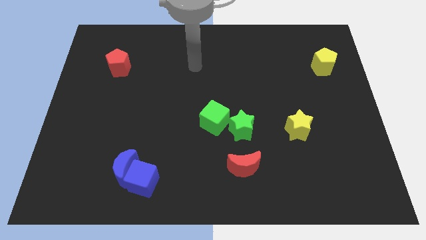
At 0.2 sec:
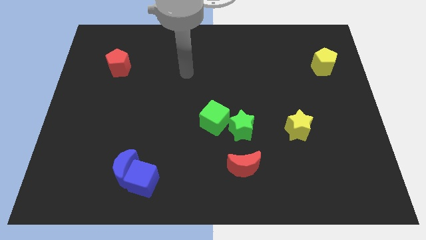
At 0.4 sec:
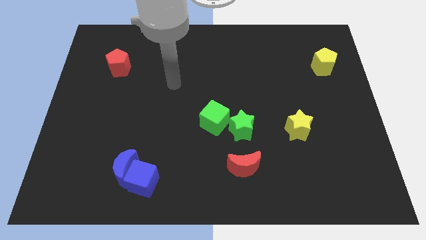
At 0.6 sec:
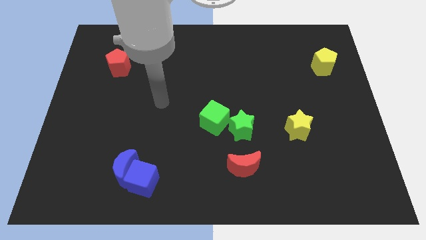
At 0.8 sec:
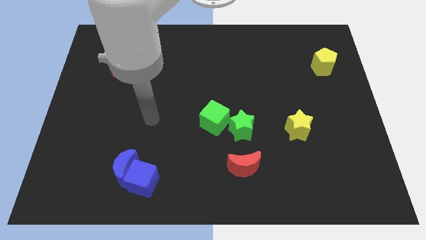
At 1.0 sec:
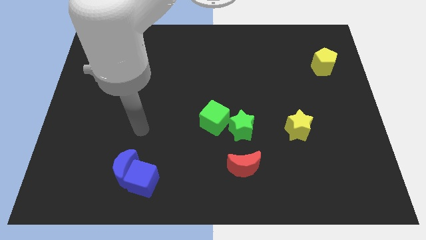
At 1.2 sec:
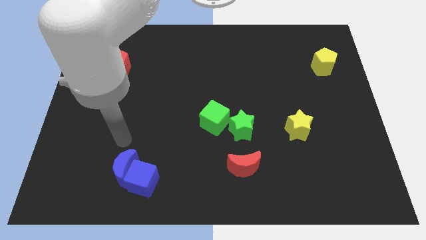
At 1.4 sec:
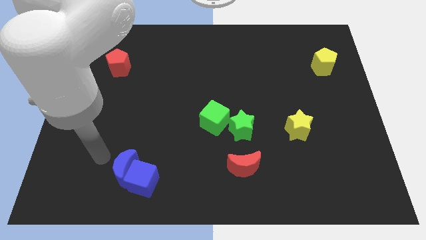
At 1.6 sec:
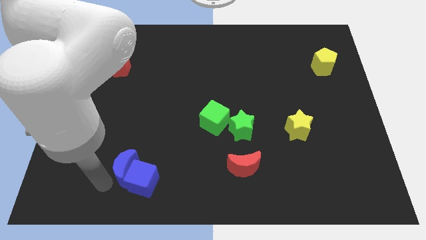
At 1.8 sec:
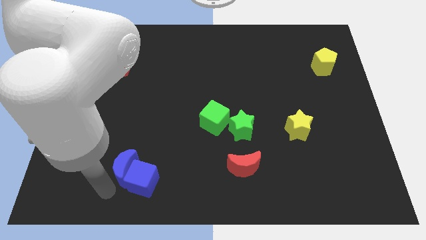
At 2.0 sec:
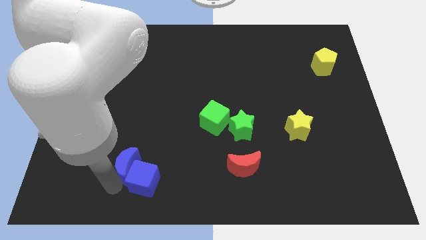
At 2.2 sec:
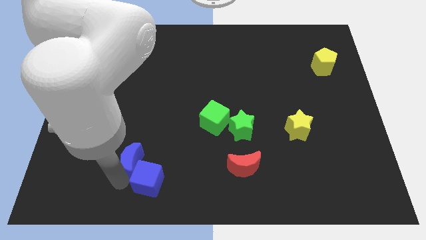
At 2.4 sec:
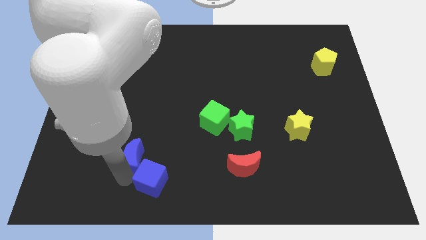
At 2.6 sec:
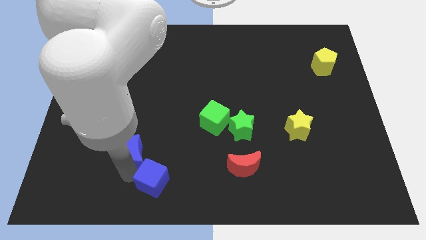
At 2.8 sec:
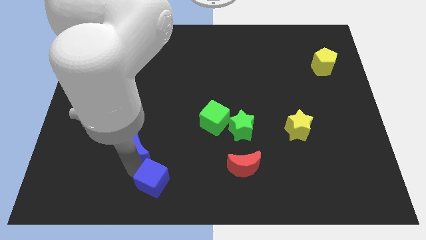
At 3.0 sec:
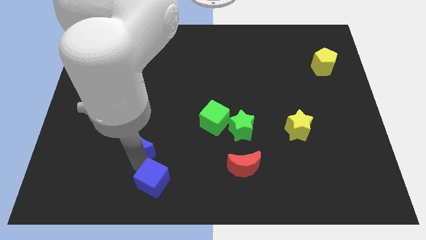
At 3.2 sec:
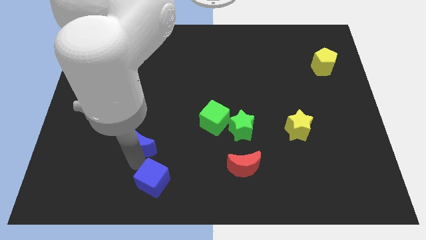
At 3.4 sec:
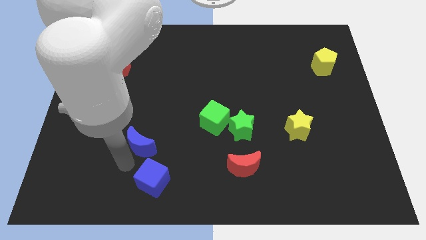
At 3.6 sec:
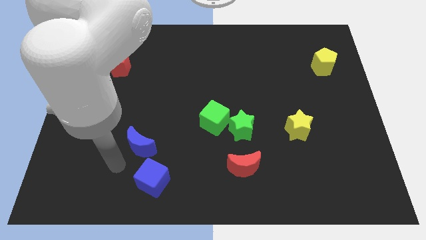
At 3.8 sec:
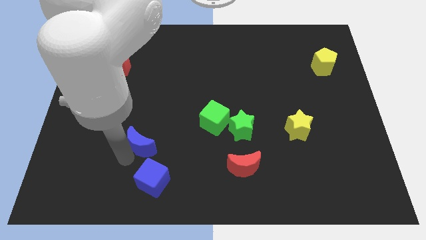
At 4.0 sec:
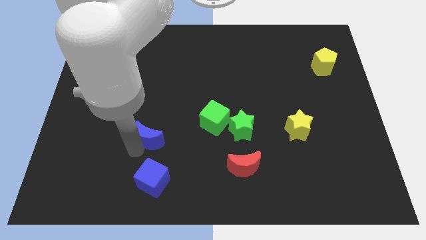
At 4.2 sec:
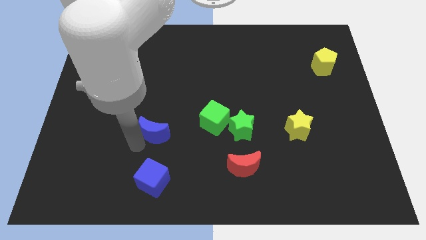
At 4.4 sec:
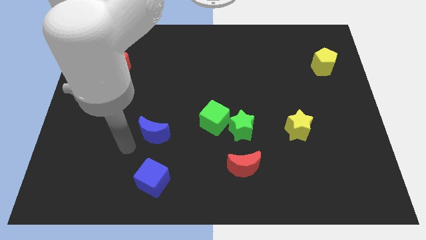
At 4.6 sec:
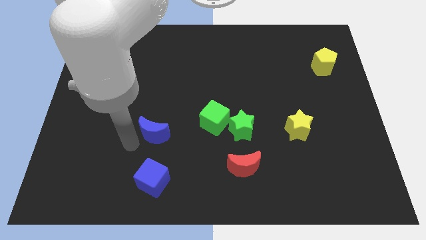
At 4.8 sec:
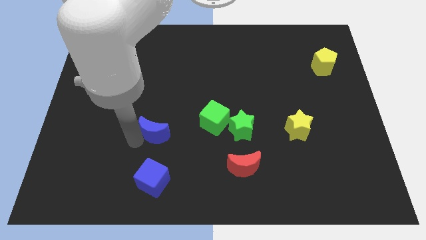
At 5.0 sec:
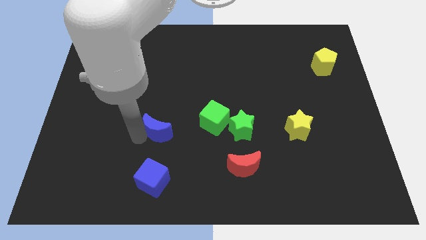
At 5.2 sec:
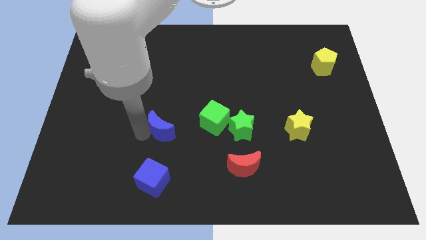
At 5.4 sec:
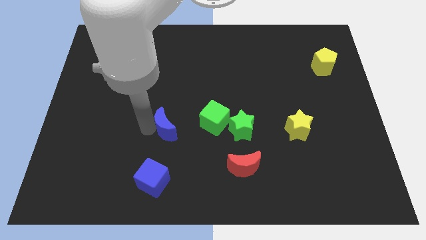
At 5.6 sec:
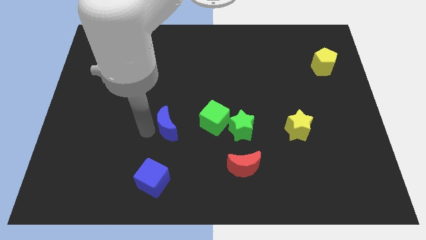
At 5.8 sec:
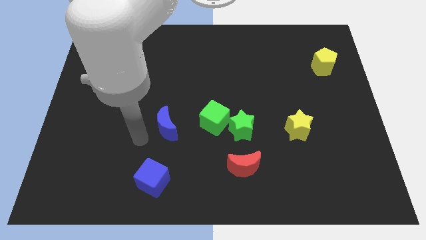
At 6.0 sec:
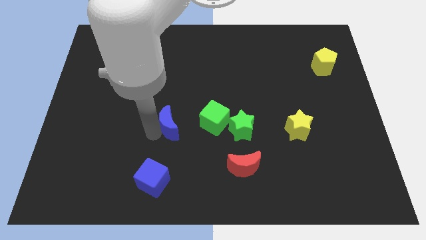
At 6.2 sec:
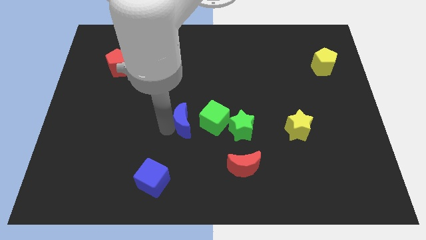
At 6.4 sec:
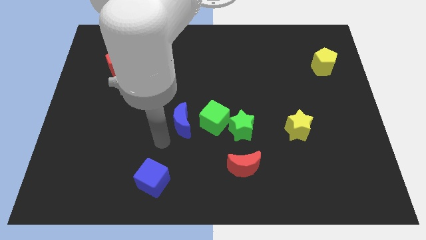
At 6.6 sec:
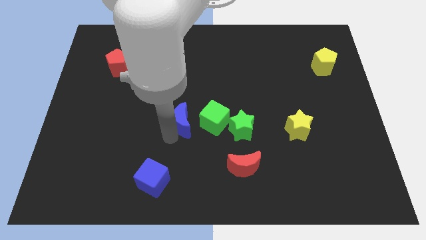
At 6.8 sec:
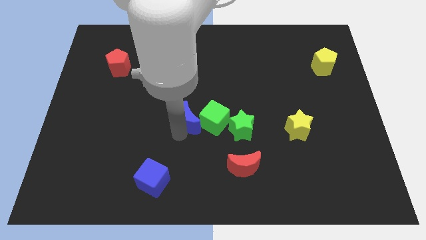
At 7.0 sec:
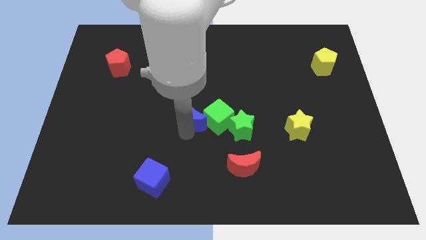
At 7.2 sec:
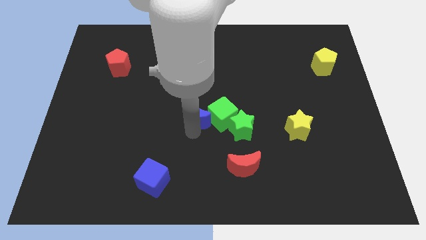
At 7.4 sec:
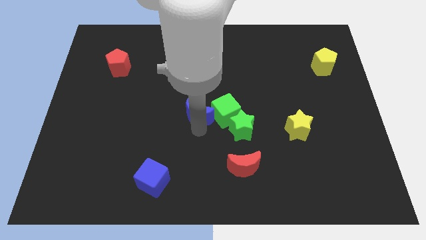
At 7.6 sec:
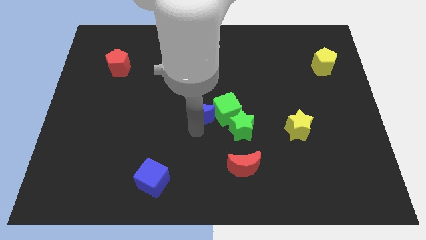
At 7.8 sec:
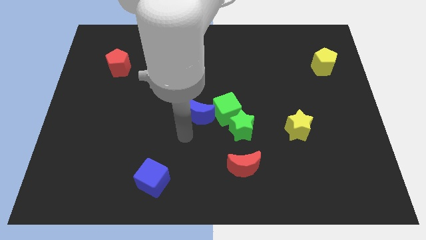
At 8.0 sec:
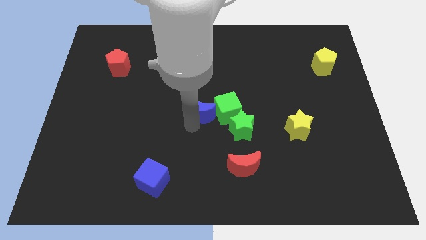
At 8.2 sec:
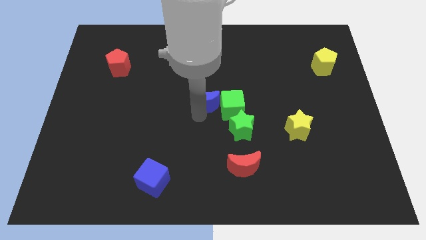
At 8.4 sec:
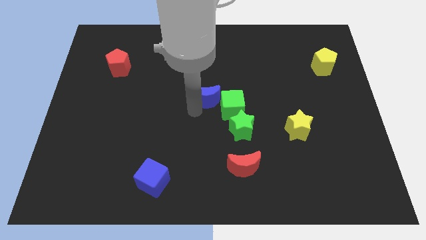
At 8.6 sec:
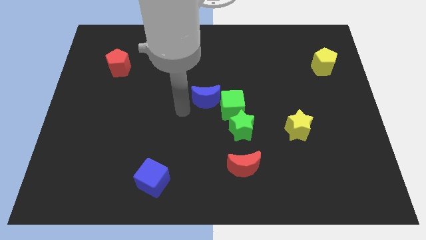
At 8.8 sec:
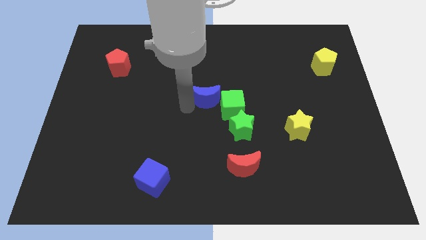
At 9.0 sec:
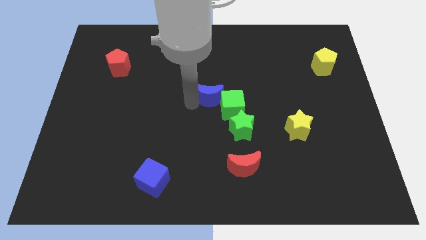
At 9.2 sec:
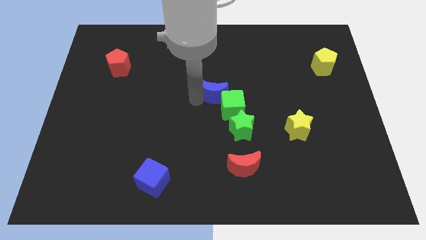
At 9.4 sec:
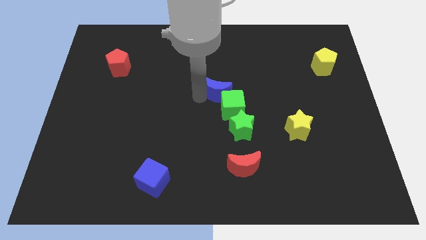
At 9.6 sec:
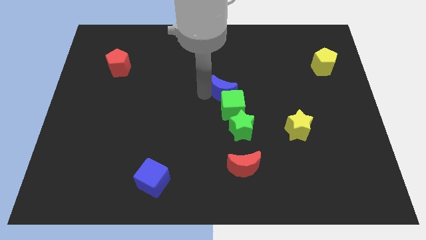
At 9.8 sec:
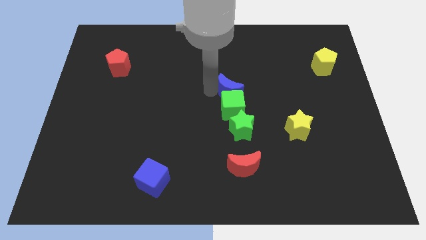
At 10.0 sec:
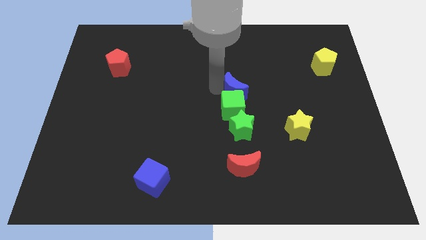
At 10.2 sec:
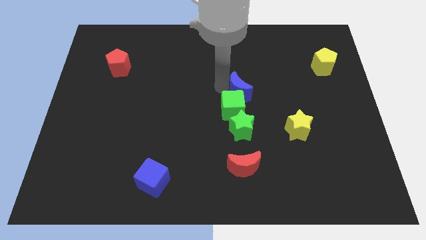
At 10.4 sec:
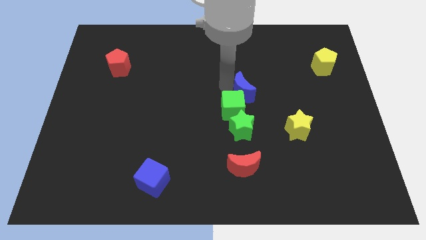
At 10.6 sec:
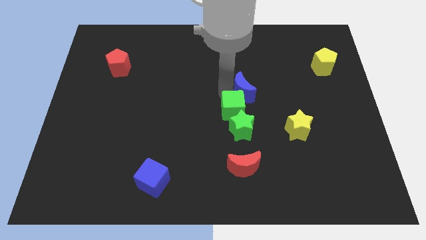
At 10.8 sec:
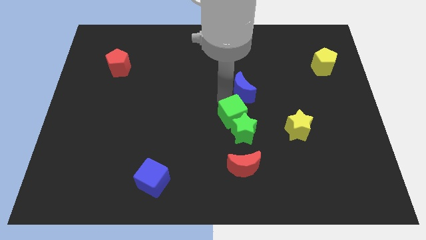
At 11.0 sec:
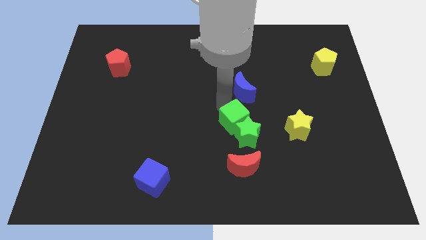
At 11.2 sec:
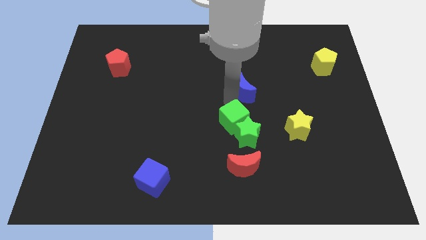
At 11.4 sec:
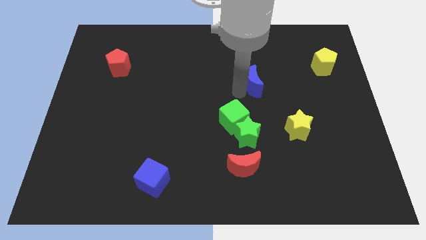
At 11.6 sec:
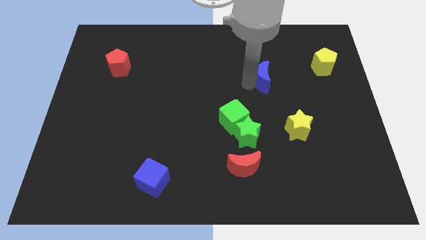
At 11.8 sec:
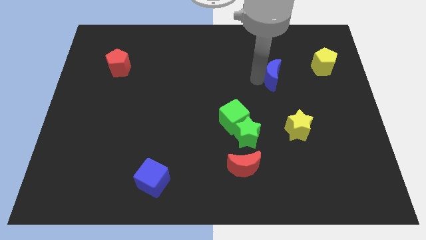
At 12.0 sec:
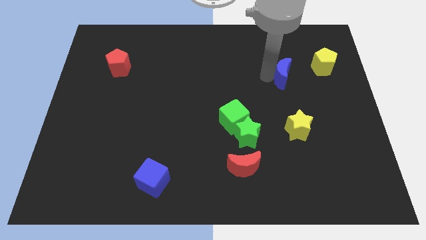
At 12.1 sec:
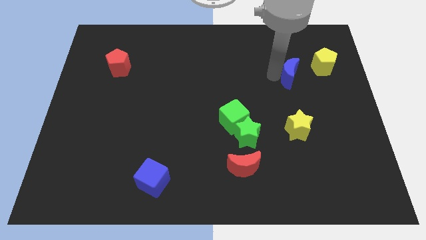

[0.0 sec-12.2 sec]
slide the blue moon to the bottom left side of the yellow pentagon

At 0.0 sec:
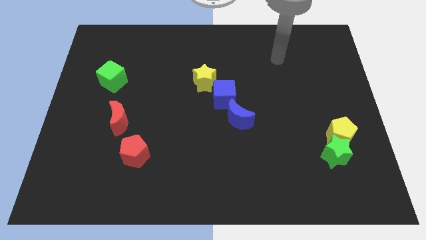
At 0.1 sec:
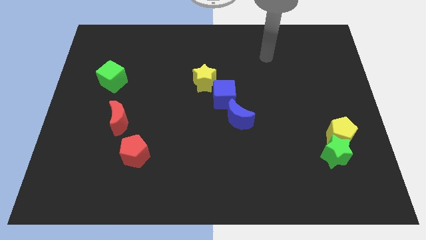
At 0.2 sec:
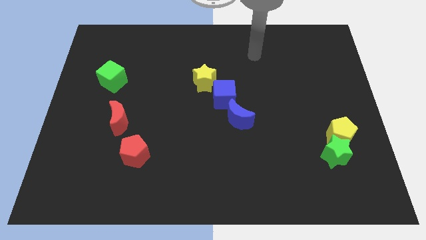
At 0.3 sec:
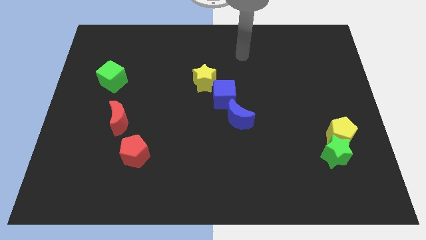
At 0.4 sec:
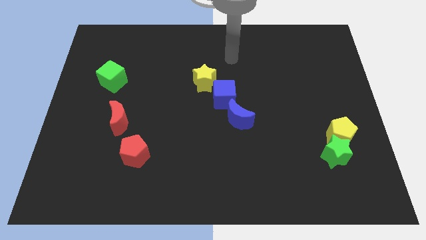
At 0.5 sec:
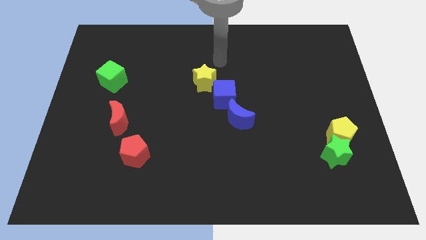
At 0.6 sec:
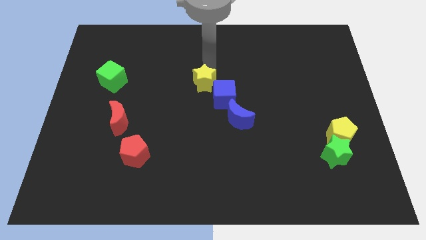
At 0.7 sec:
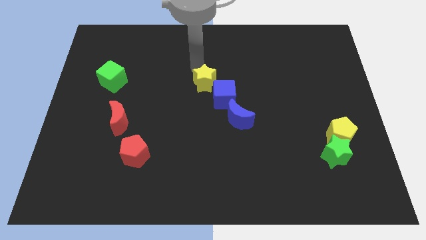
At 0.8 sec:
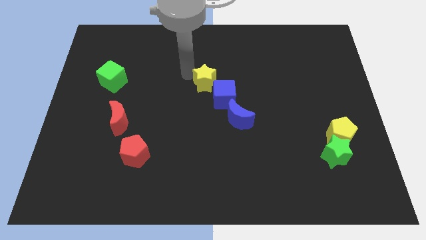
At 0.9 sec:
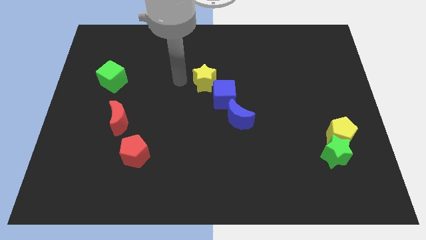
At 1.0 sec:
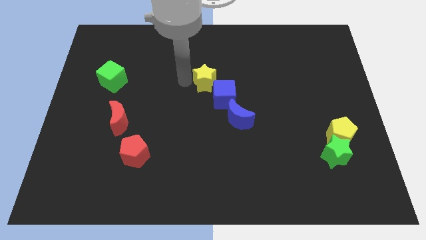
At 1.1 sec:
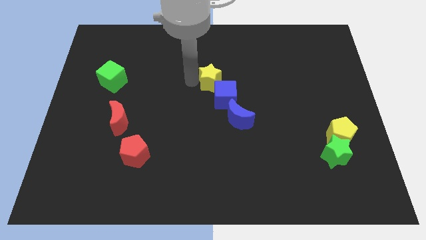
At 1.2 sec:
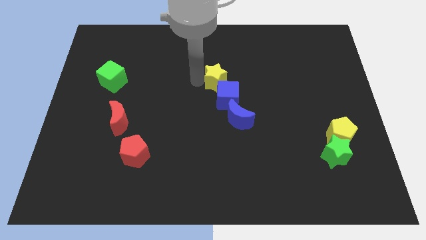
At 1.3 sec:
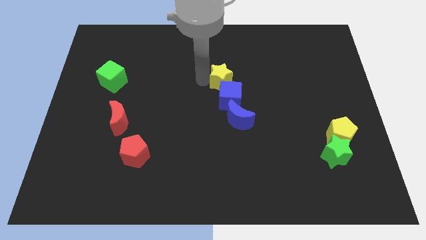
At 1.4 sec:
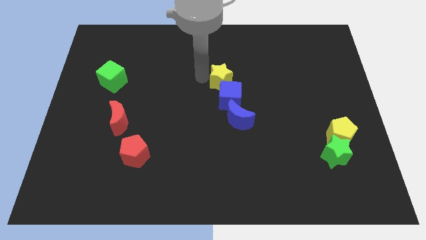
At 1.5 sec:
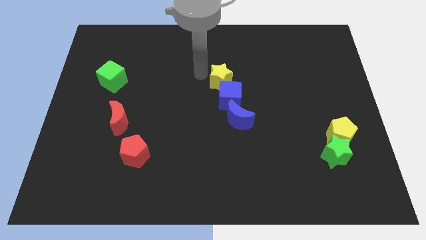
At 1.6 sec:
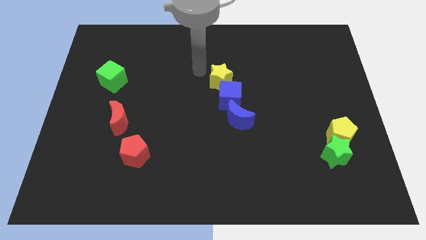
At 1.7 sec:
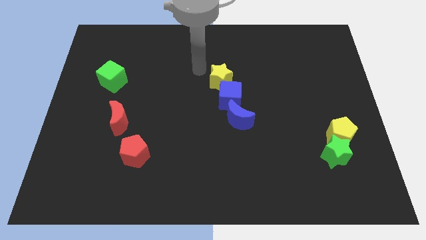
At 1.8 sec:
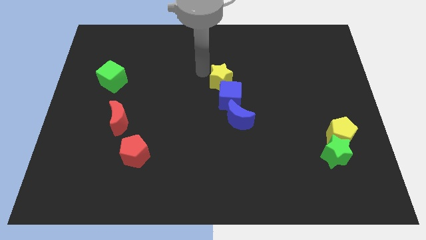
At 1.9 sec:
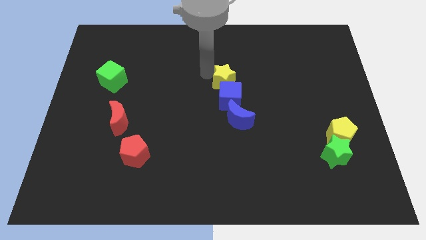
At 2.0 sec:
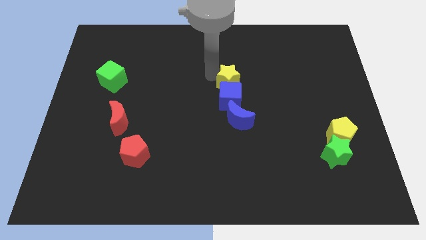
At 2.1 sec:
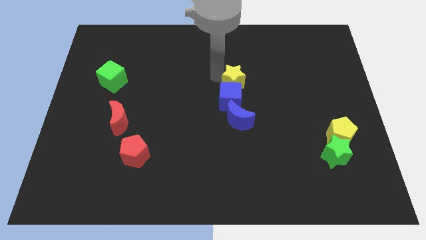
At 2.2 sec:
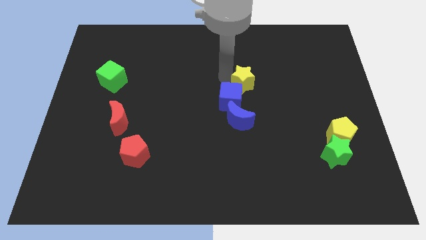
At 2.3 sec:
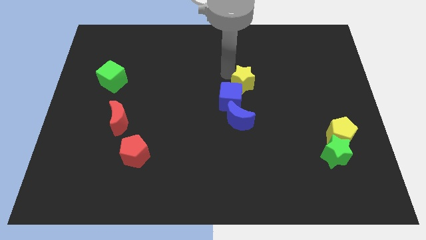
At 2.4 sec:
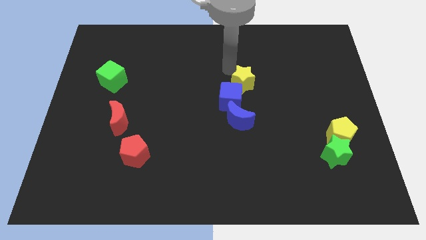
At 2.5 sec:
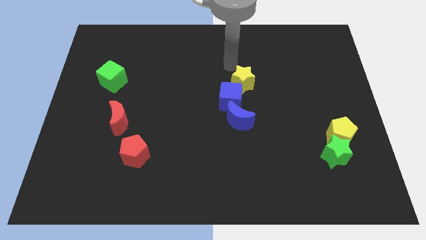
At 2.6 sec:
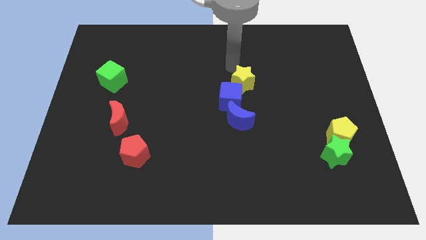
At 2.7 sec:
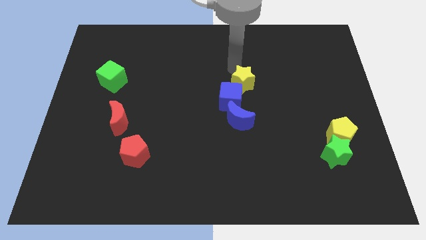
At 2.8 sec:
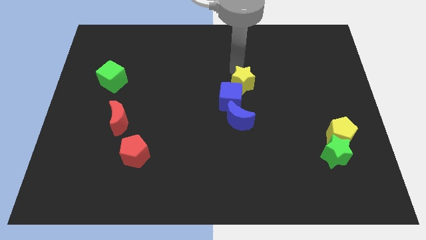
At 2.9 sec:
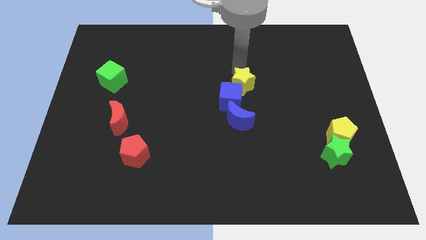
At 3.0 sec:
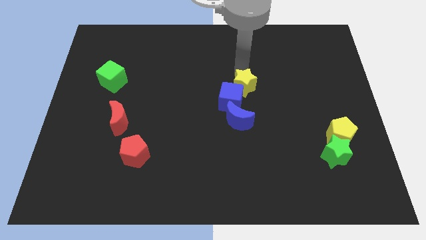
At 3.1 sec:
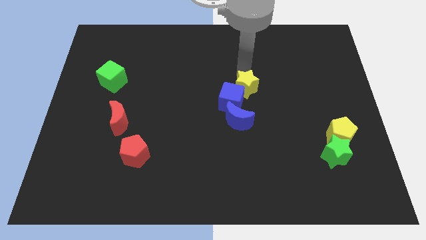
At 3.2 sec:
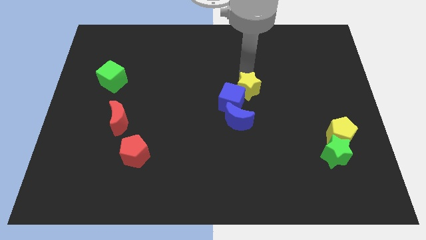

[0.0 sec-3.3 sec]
put the yellow star to the top right of the blue moon
